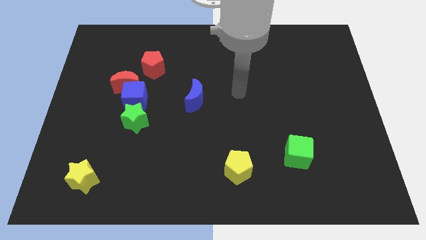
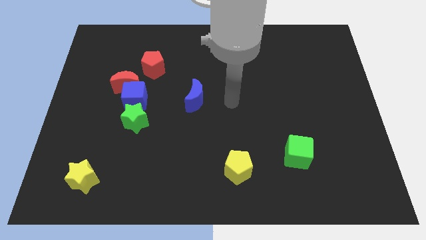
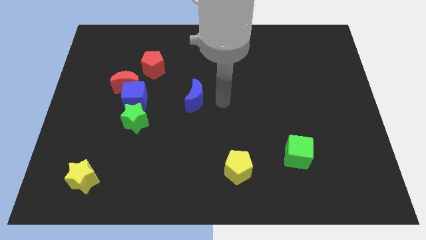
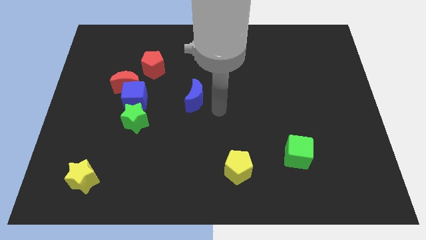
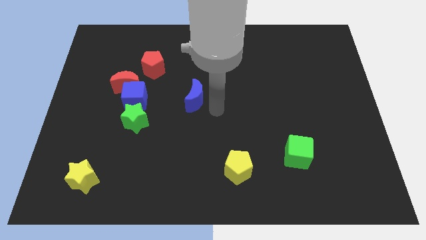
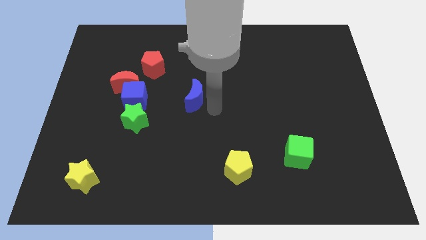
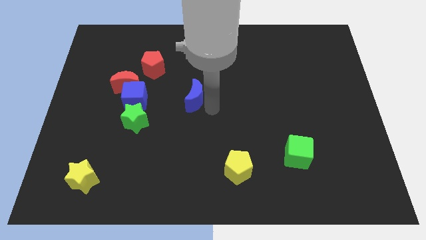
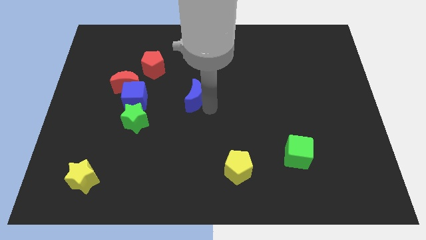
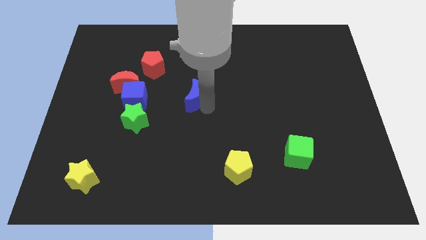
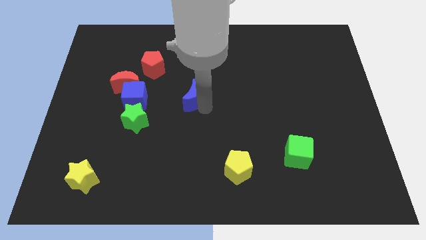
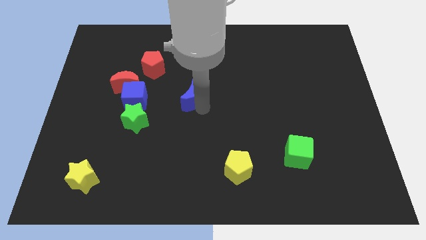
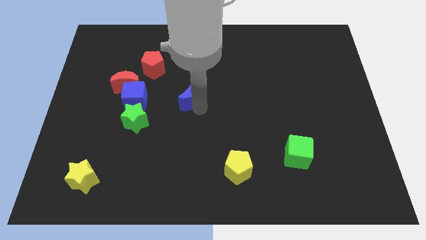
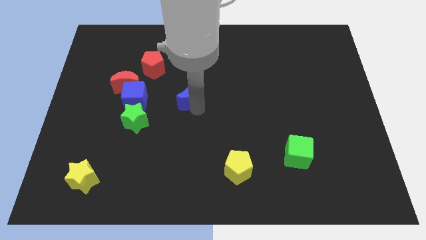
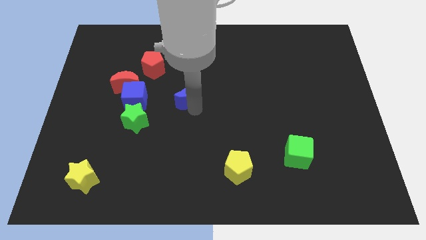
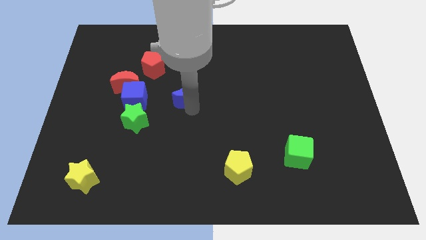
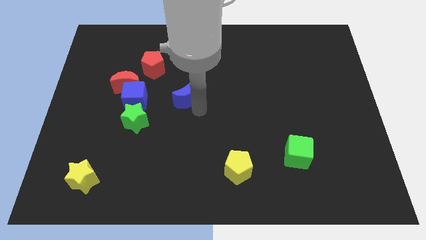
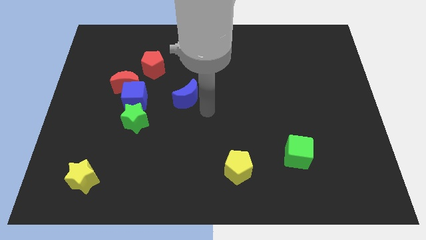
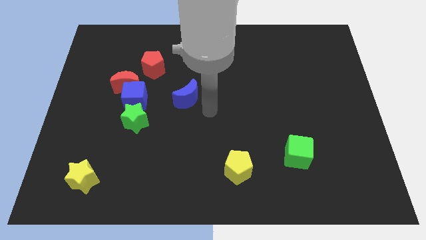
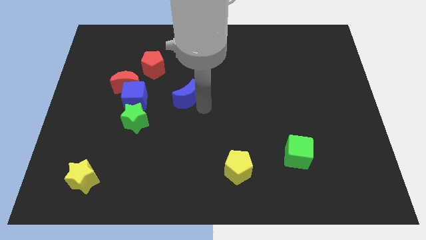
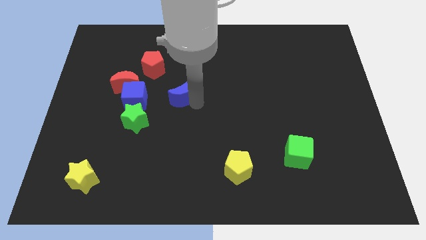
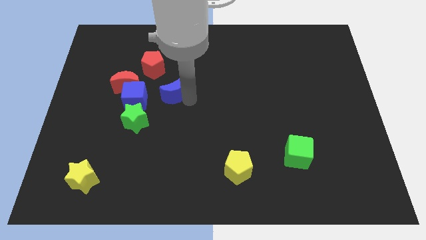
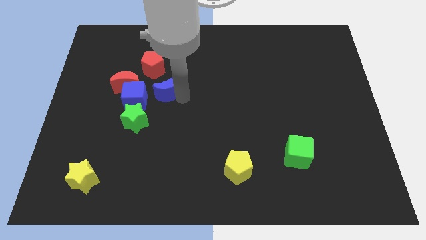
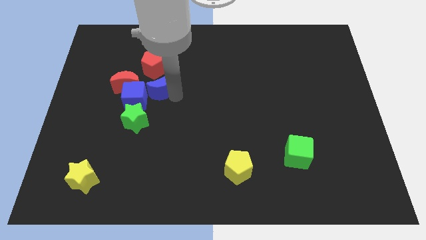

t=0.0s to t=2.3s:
push the blue moon upwards and to the left a little

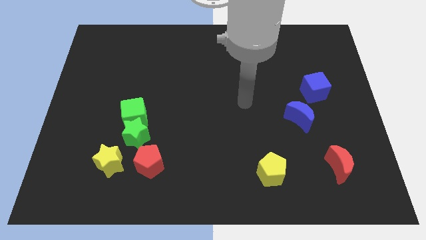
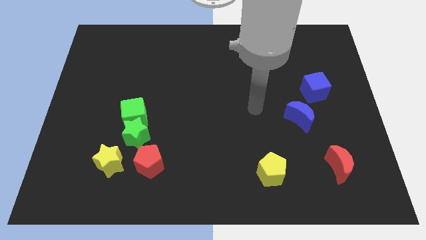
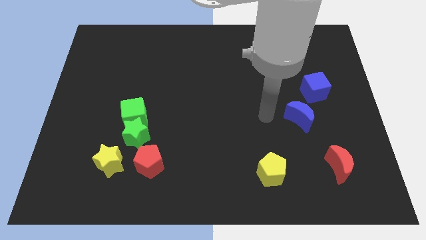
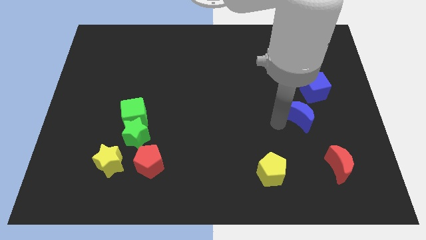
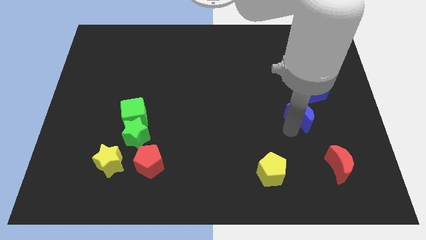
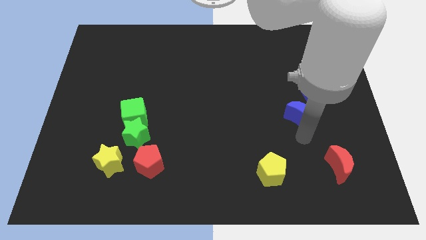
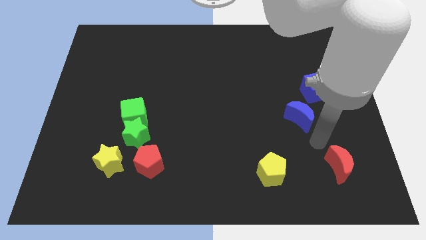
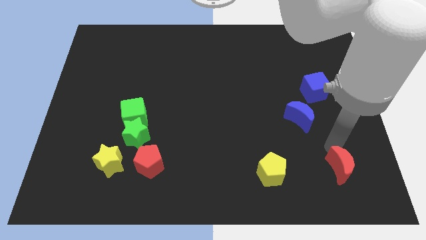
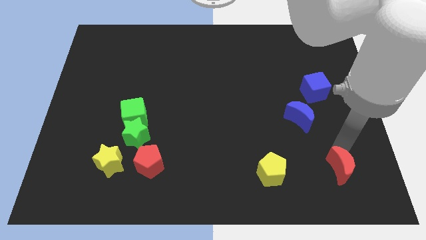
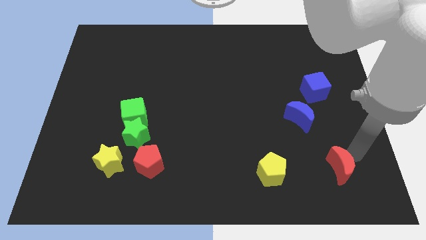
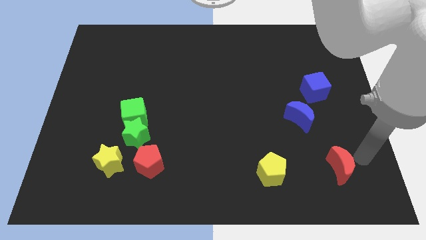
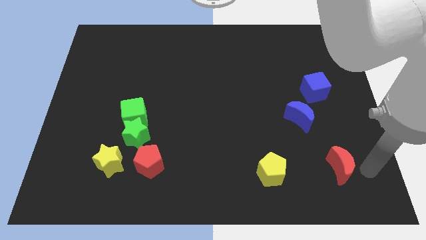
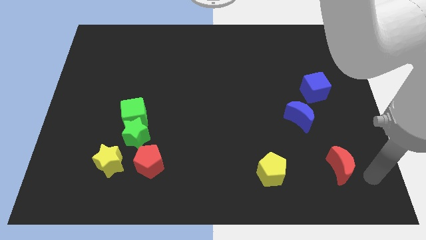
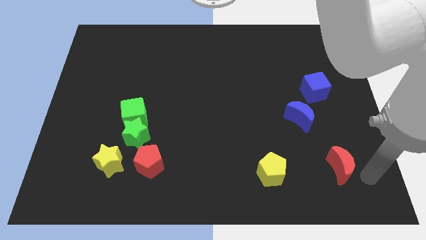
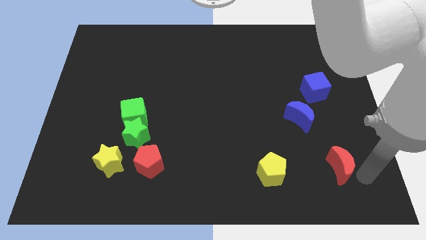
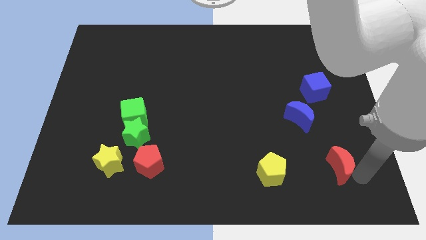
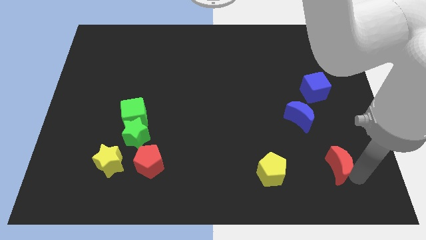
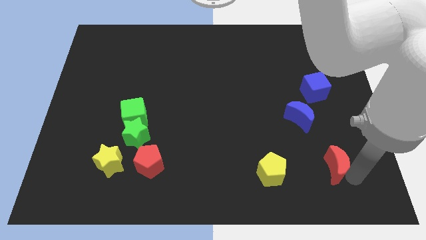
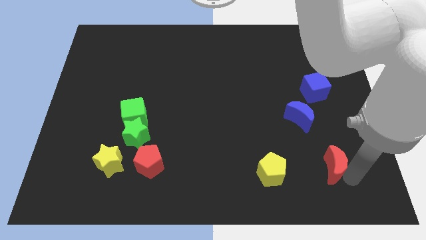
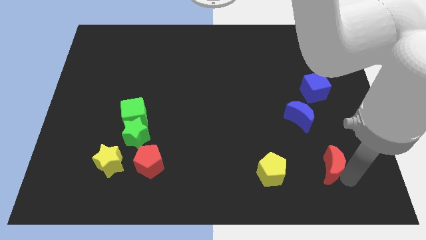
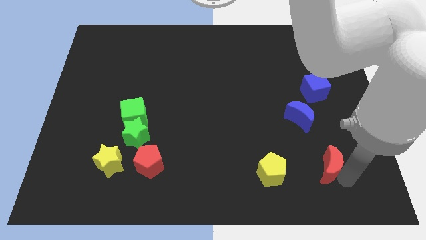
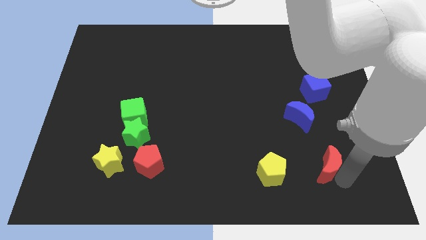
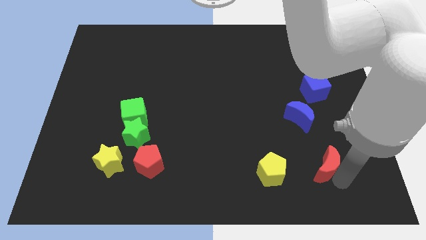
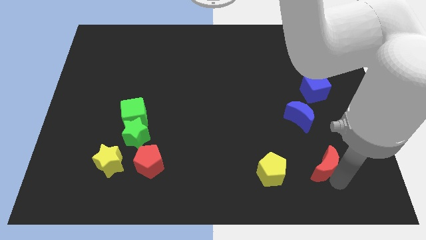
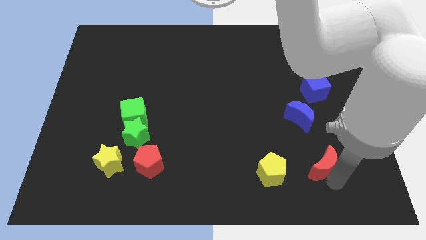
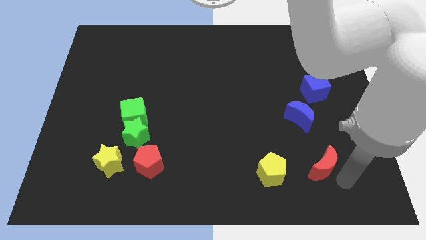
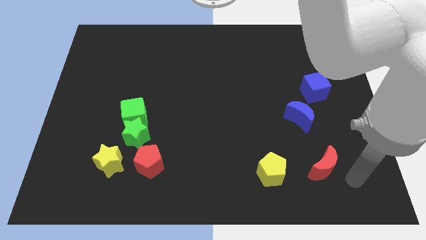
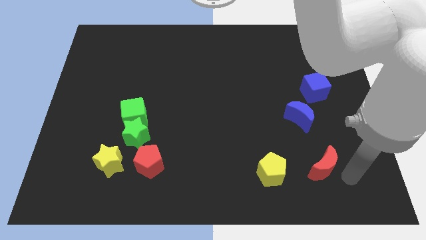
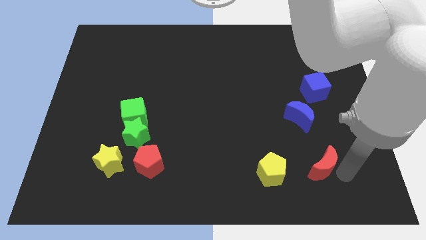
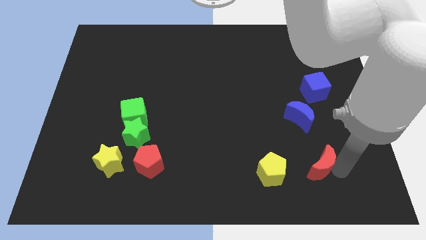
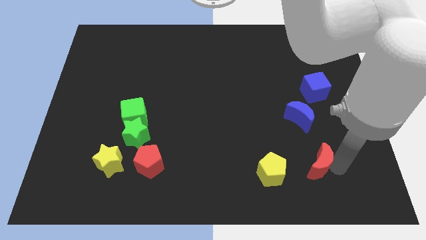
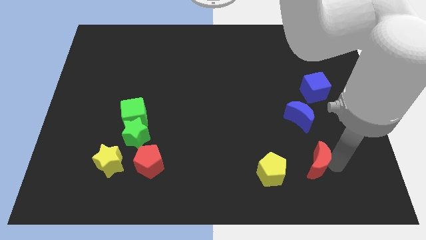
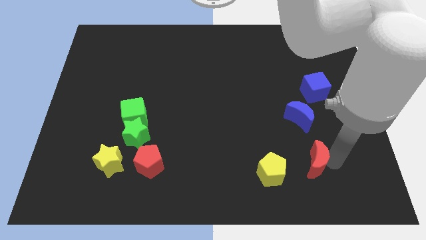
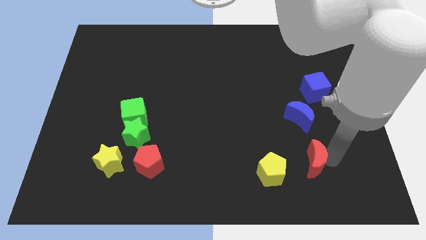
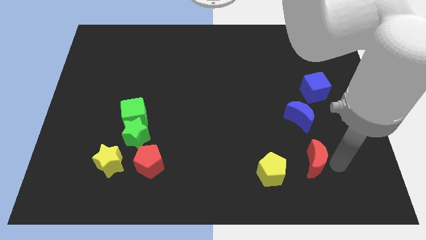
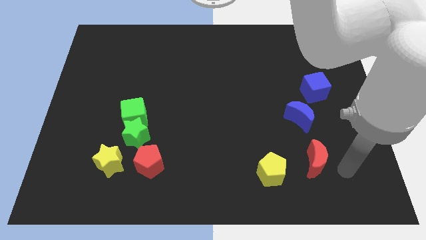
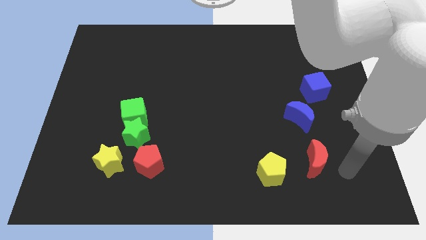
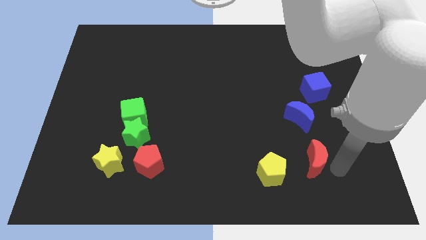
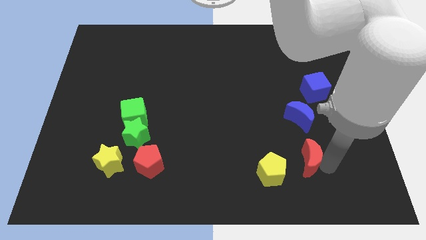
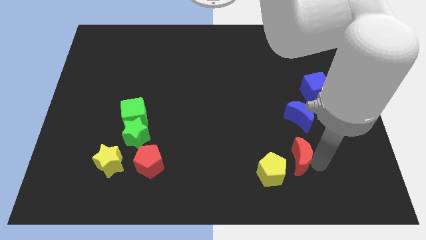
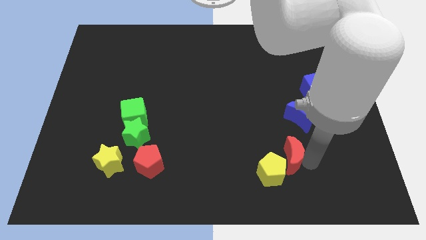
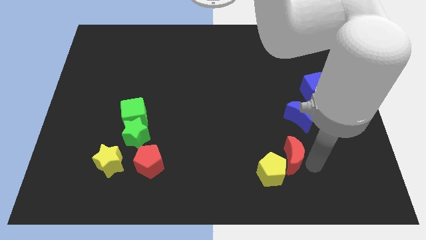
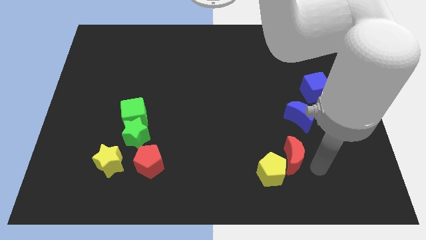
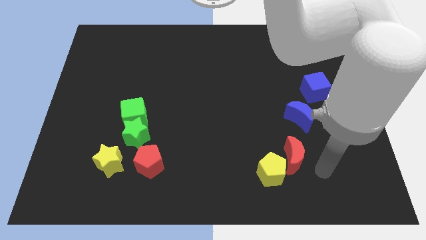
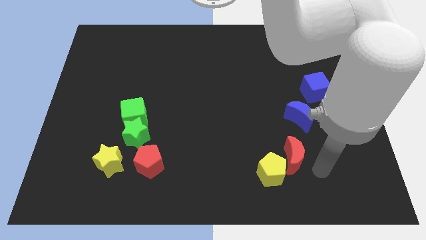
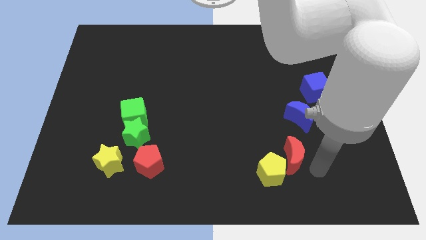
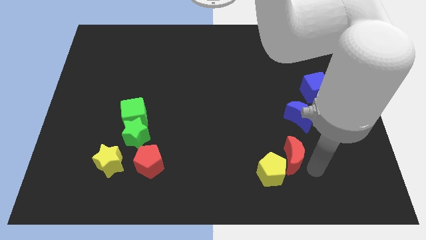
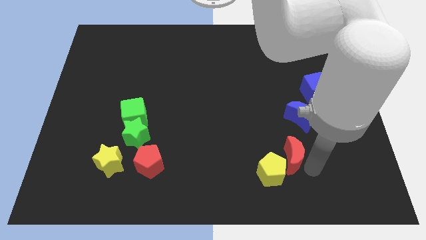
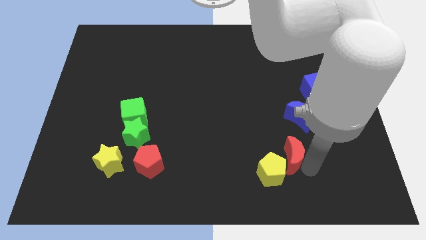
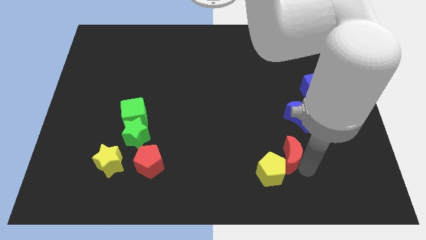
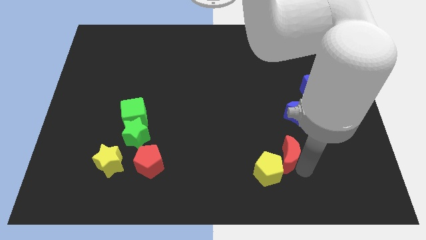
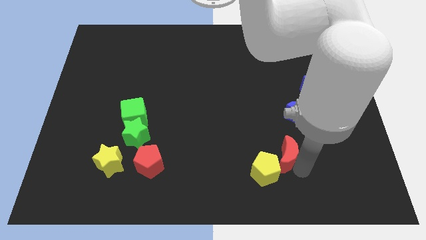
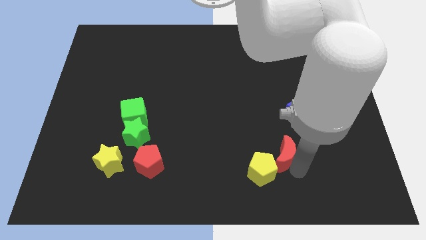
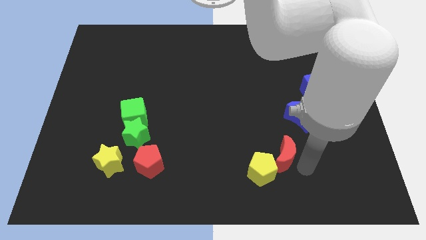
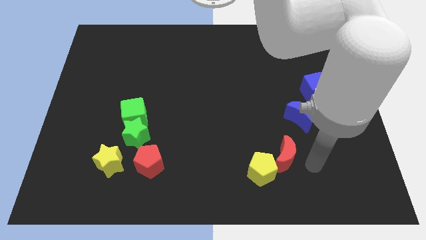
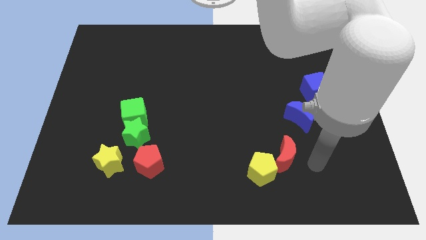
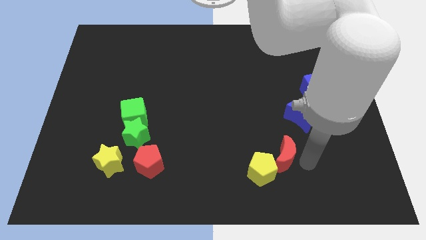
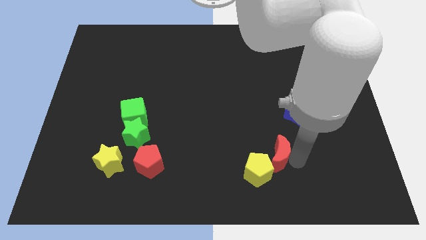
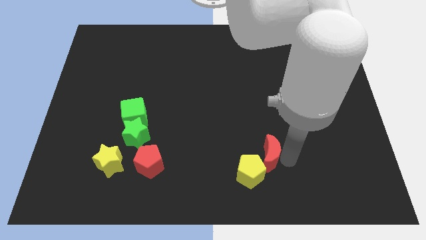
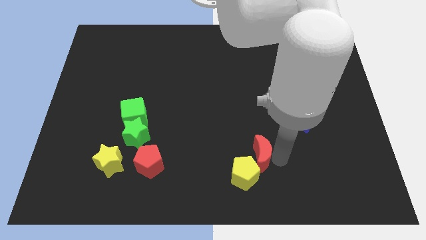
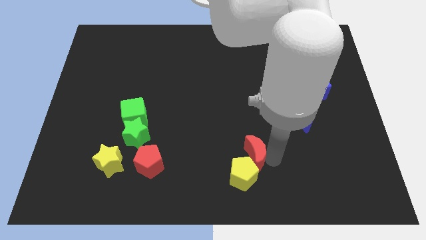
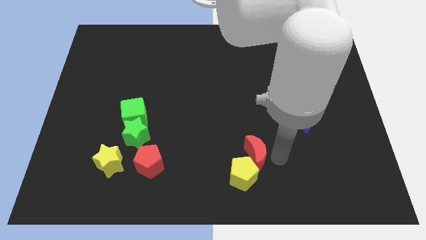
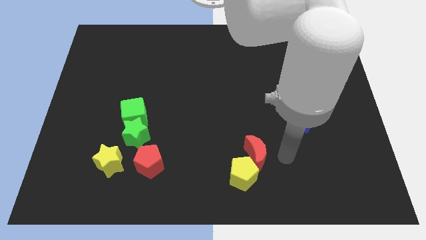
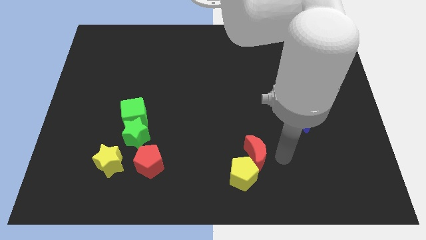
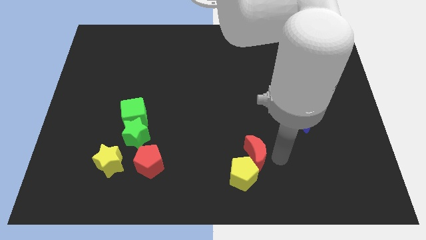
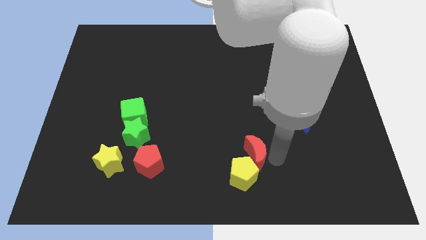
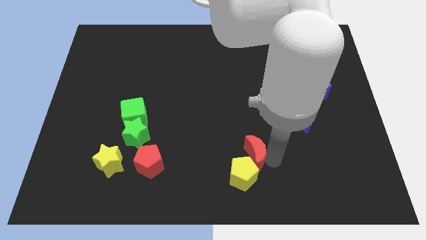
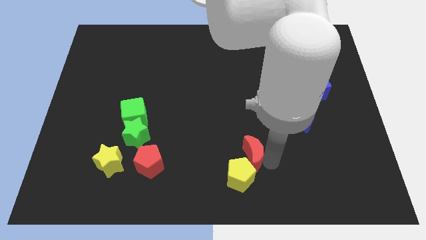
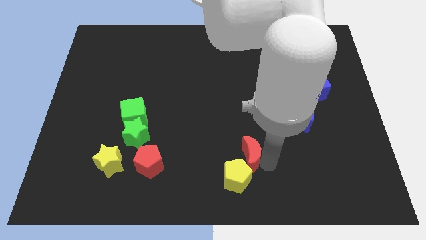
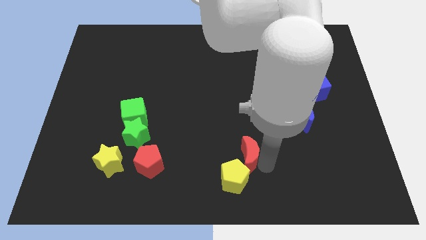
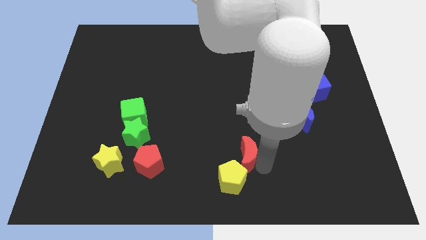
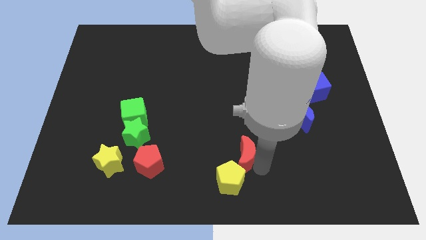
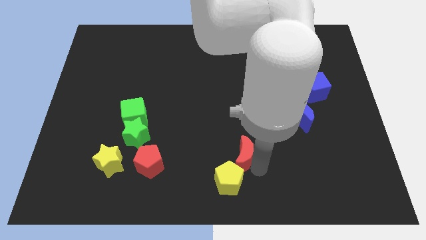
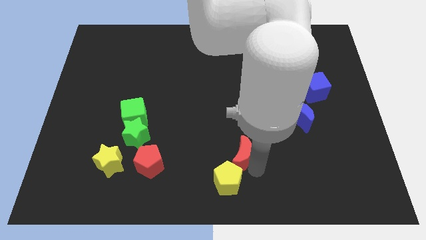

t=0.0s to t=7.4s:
push the red moon left
